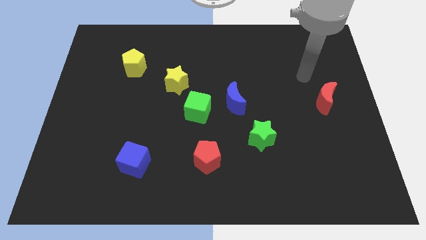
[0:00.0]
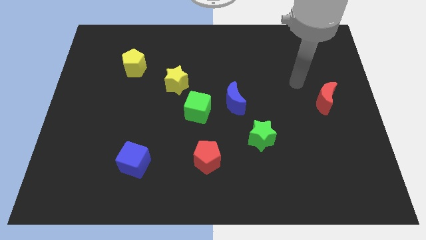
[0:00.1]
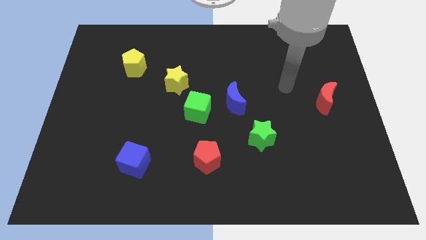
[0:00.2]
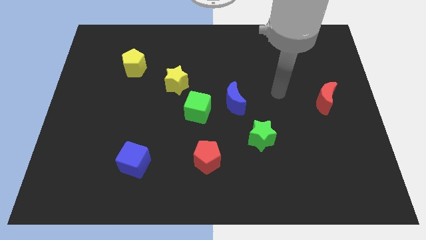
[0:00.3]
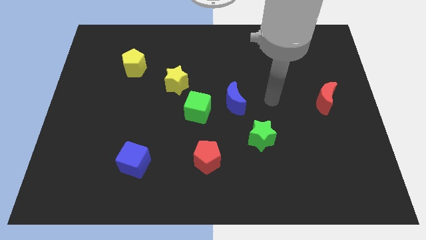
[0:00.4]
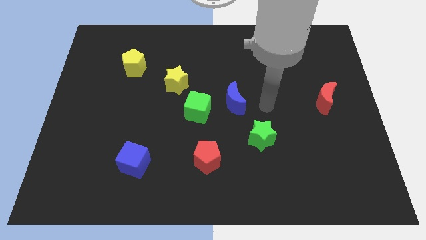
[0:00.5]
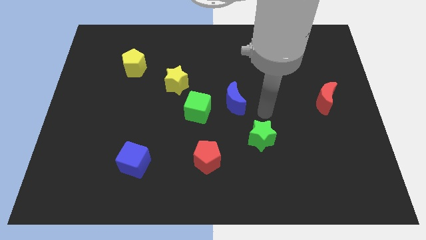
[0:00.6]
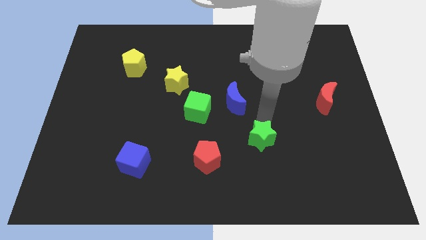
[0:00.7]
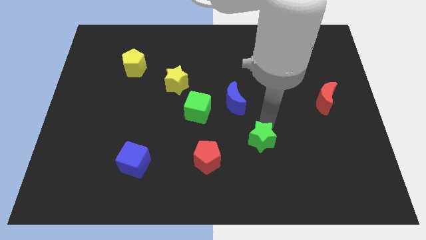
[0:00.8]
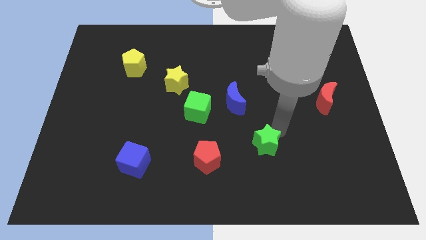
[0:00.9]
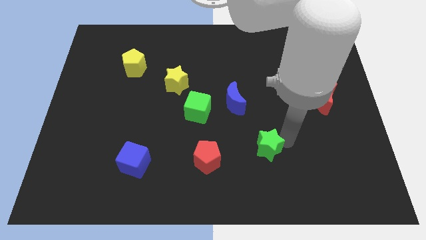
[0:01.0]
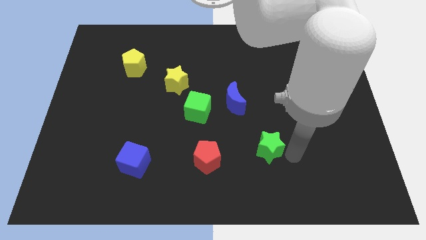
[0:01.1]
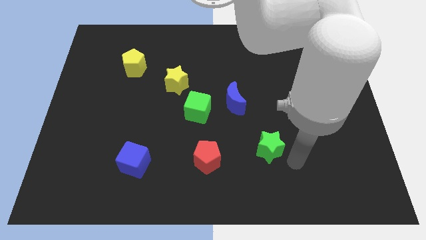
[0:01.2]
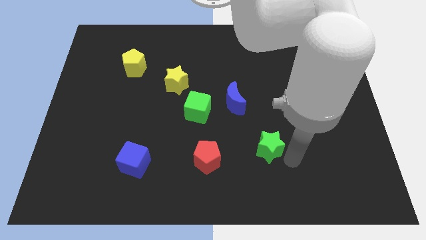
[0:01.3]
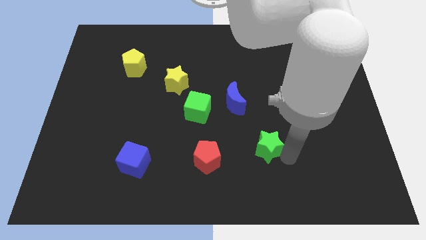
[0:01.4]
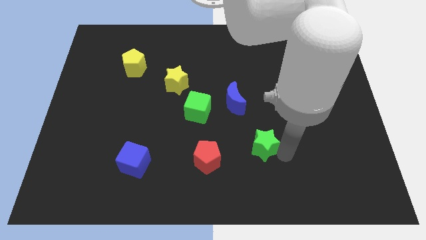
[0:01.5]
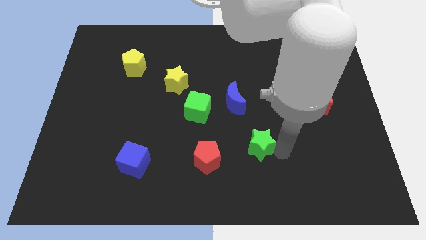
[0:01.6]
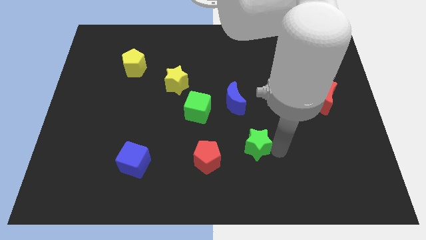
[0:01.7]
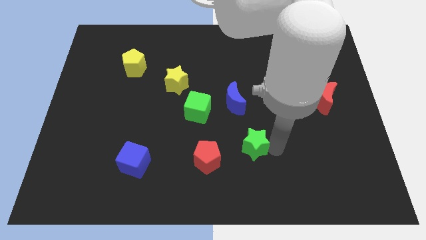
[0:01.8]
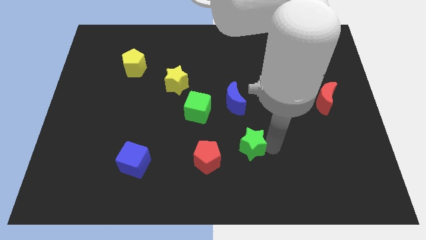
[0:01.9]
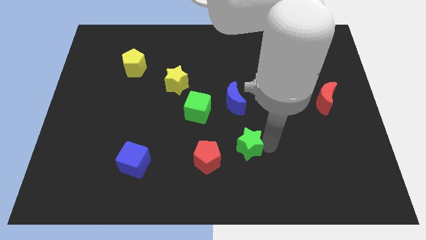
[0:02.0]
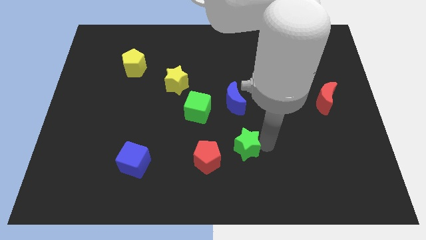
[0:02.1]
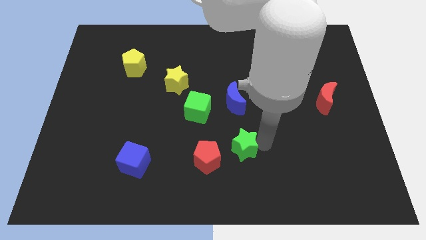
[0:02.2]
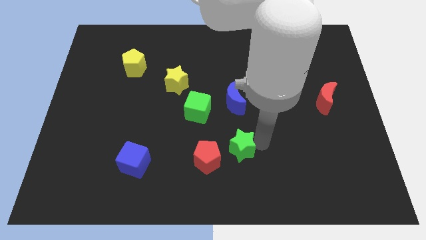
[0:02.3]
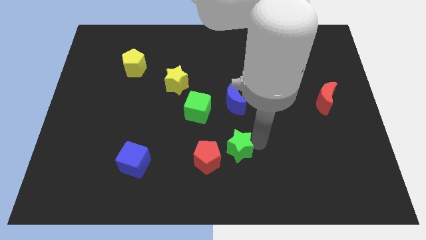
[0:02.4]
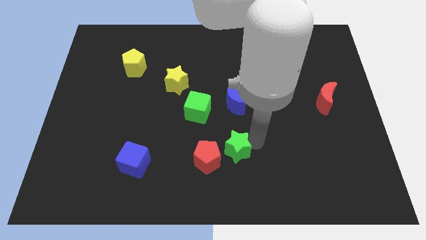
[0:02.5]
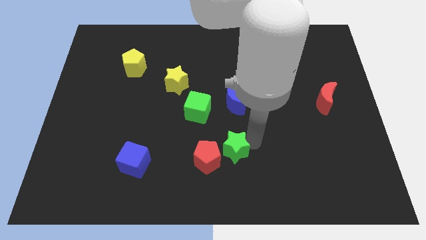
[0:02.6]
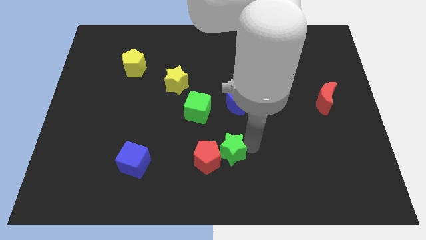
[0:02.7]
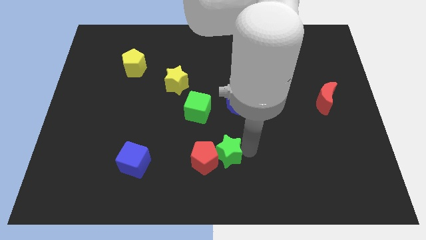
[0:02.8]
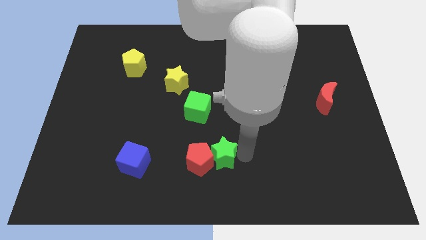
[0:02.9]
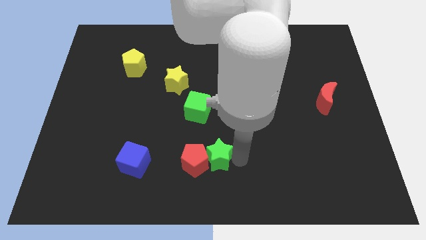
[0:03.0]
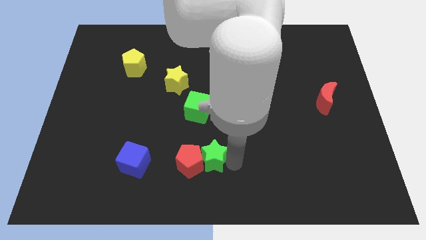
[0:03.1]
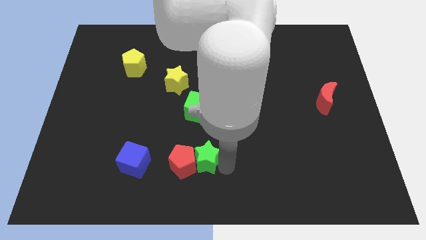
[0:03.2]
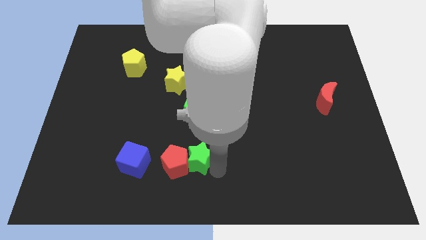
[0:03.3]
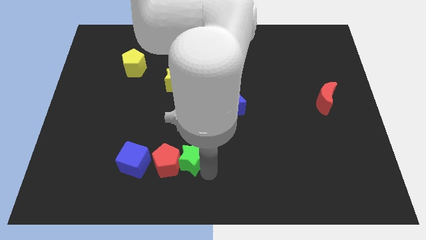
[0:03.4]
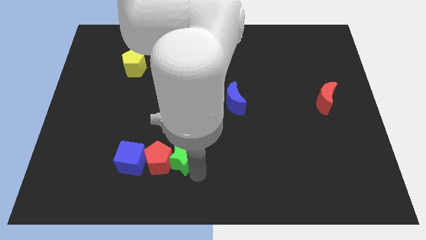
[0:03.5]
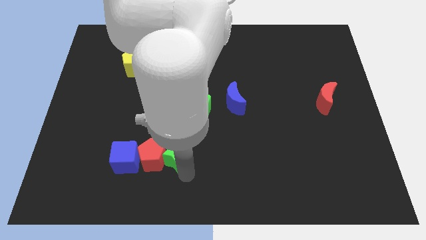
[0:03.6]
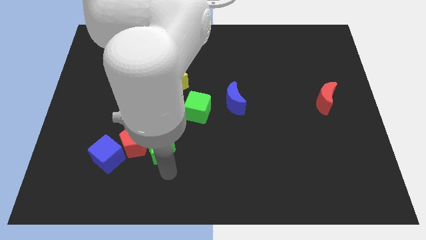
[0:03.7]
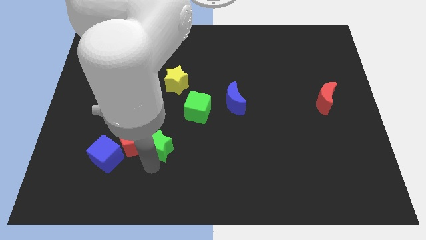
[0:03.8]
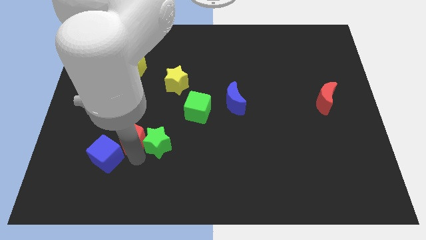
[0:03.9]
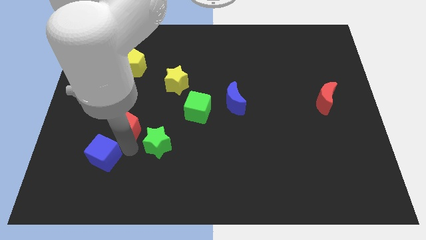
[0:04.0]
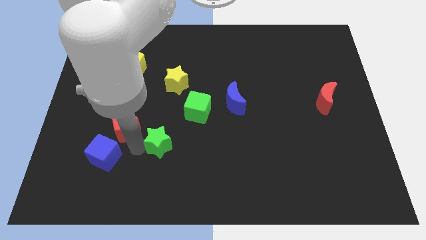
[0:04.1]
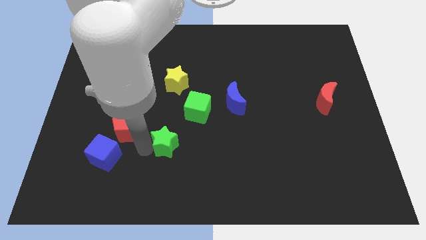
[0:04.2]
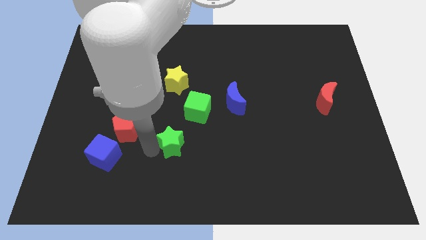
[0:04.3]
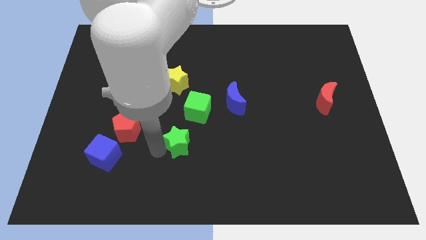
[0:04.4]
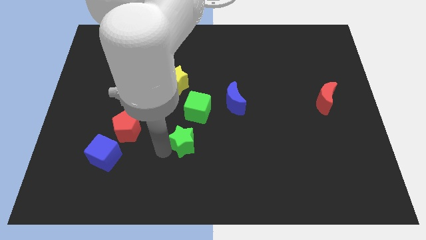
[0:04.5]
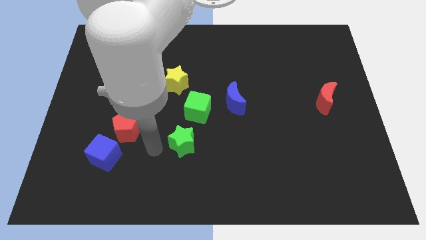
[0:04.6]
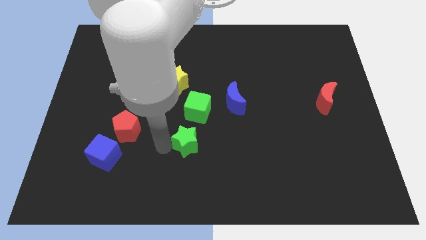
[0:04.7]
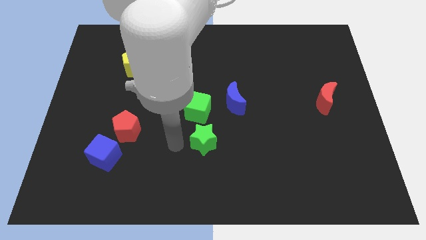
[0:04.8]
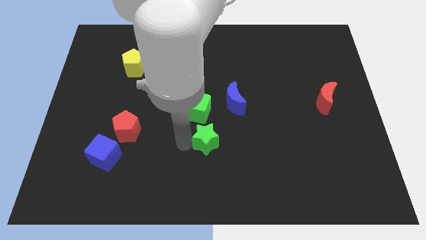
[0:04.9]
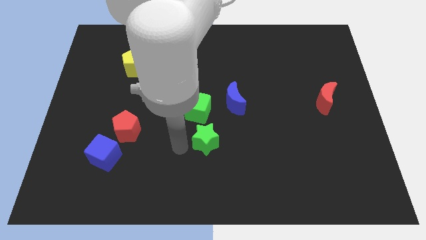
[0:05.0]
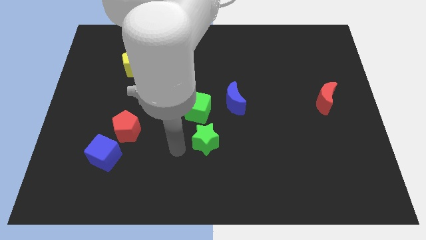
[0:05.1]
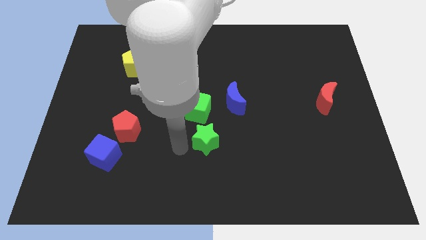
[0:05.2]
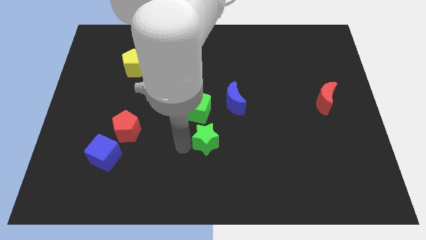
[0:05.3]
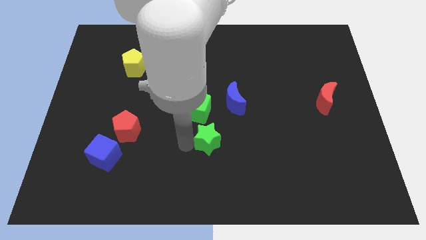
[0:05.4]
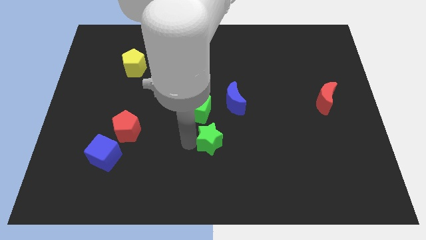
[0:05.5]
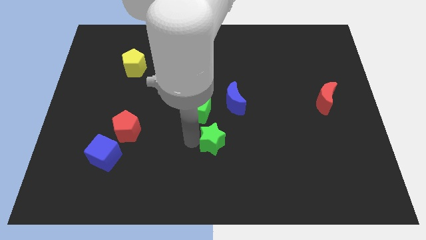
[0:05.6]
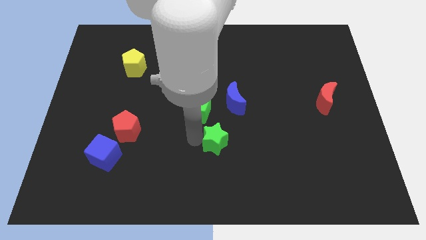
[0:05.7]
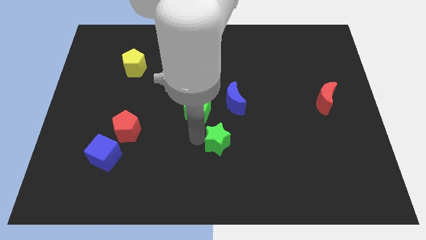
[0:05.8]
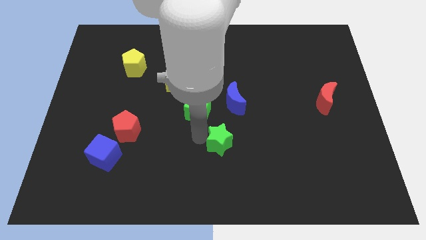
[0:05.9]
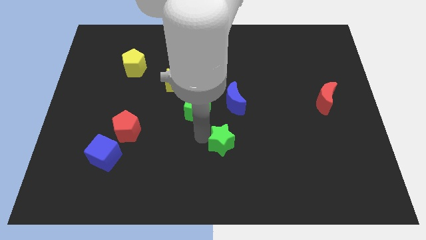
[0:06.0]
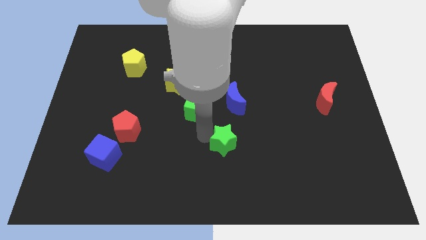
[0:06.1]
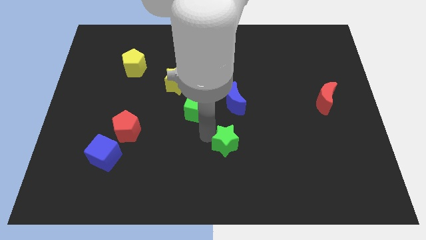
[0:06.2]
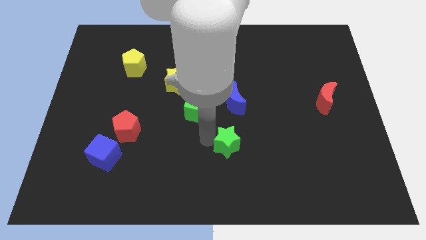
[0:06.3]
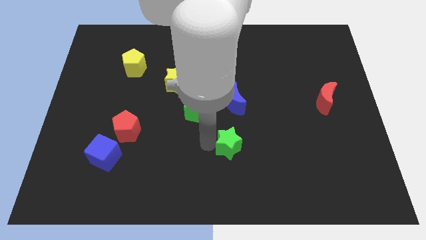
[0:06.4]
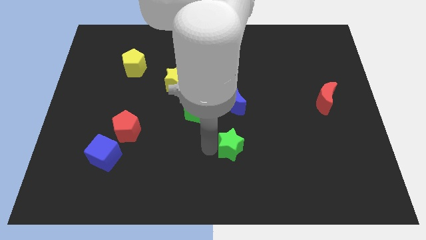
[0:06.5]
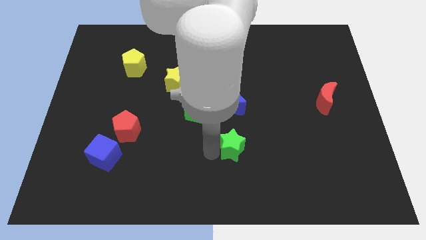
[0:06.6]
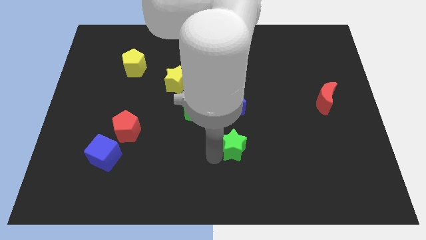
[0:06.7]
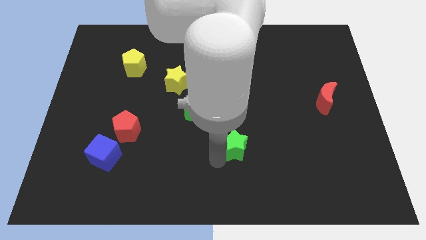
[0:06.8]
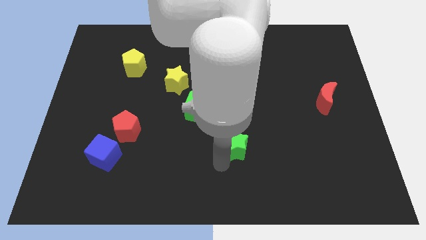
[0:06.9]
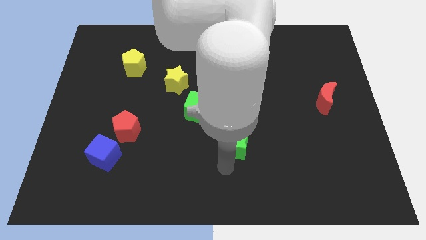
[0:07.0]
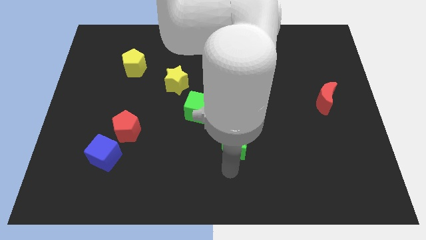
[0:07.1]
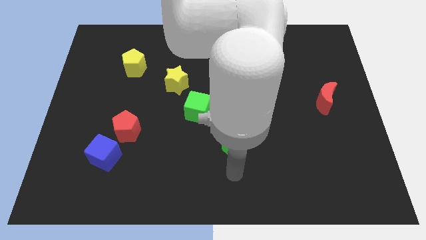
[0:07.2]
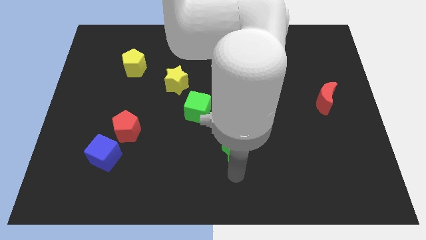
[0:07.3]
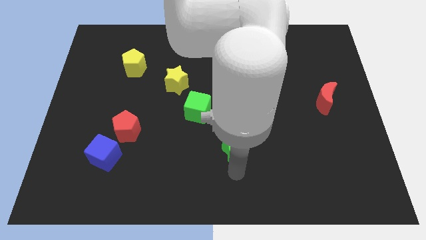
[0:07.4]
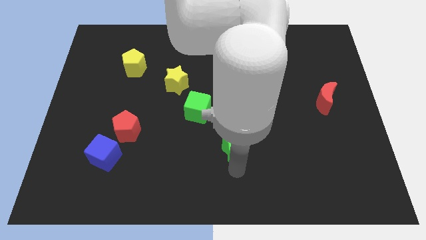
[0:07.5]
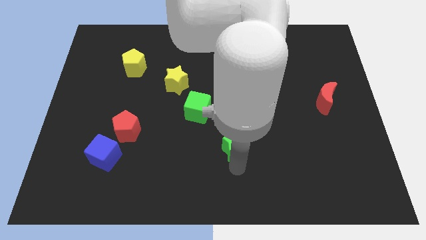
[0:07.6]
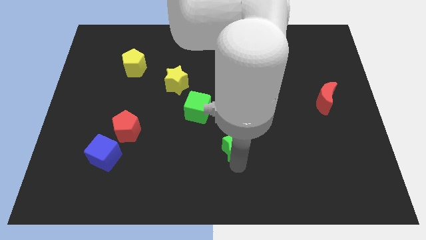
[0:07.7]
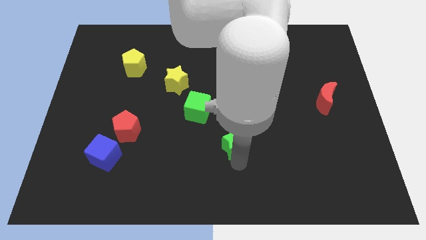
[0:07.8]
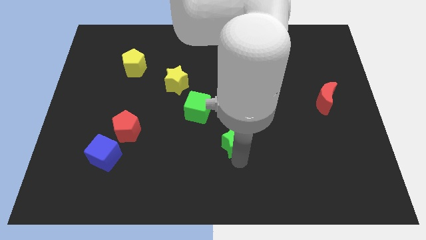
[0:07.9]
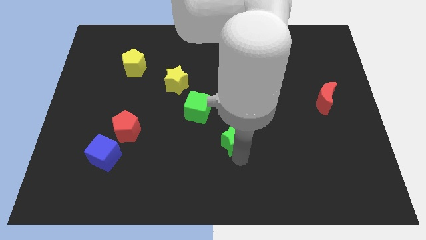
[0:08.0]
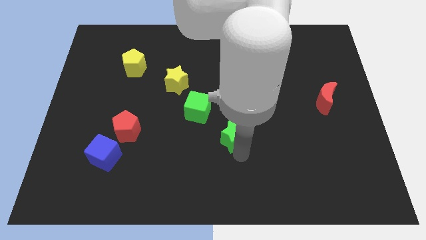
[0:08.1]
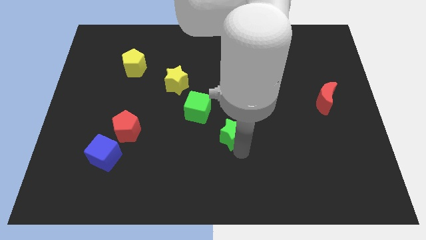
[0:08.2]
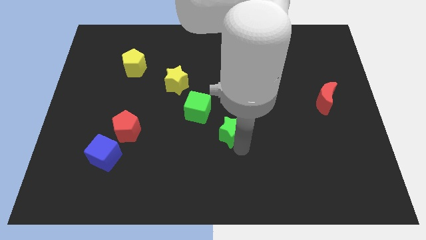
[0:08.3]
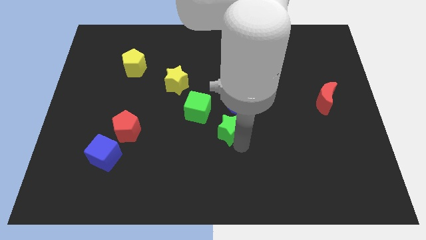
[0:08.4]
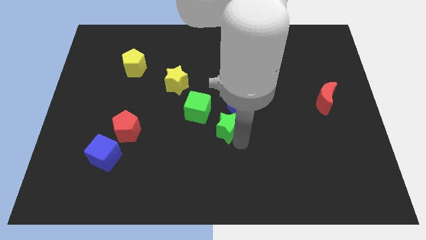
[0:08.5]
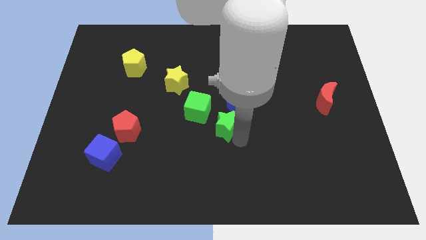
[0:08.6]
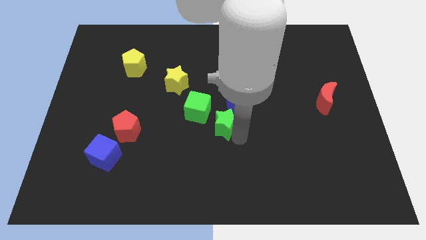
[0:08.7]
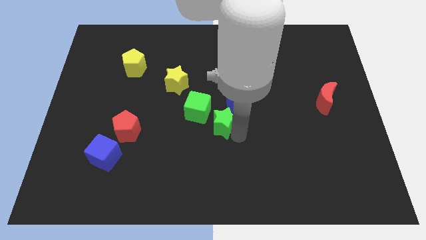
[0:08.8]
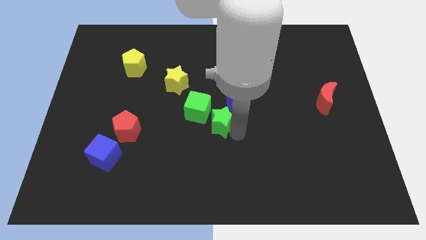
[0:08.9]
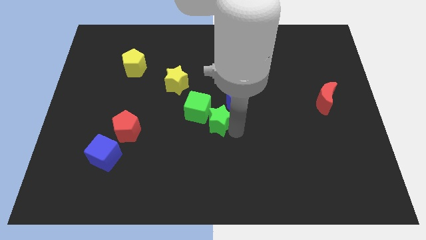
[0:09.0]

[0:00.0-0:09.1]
move the green star next to the green cube
